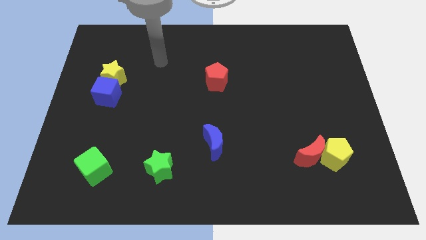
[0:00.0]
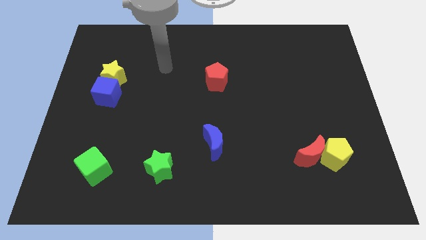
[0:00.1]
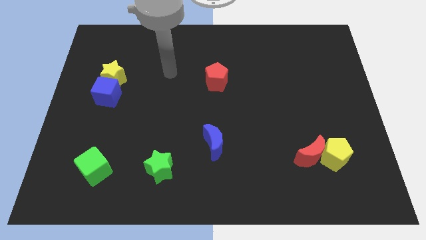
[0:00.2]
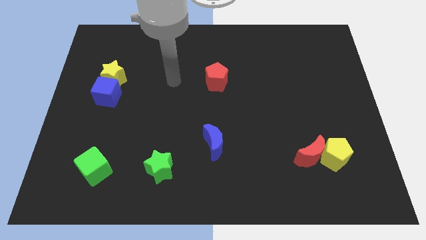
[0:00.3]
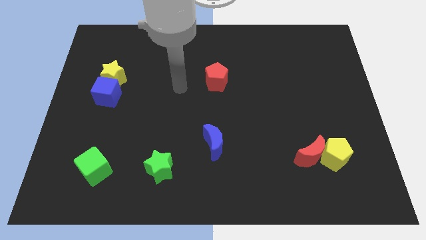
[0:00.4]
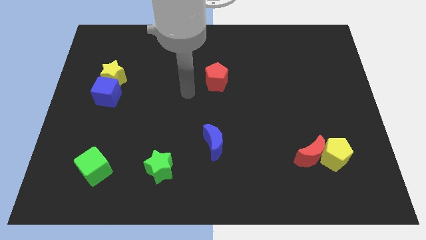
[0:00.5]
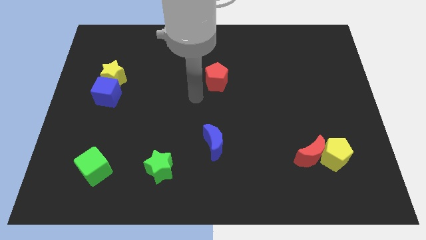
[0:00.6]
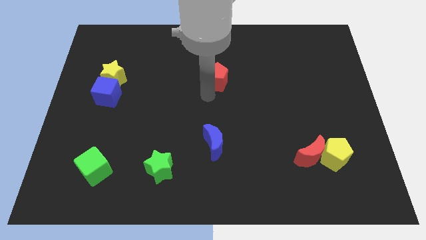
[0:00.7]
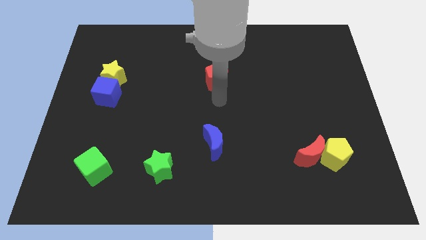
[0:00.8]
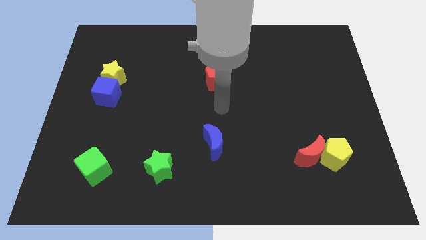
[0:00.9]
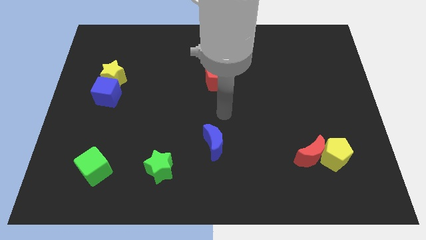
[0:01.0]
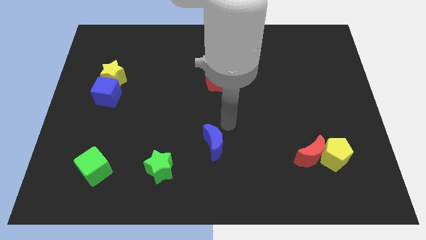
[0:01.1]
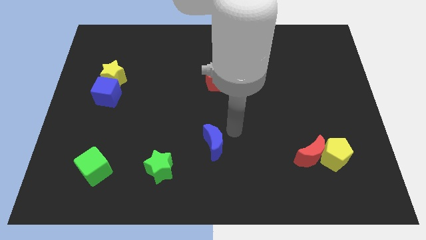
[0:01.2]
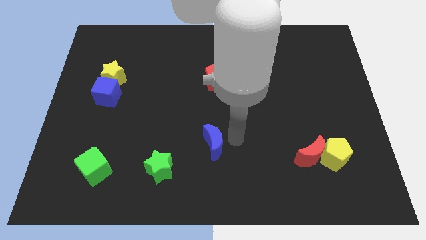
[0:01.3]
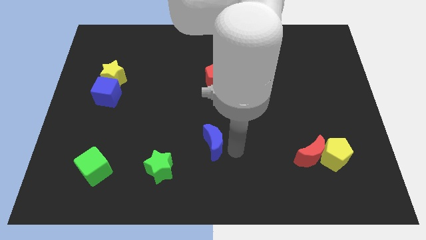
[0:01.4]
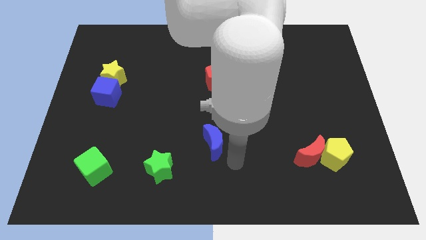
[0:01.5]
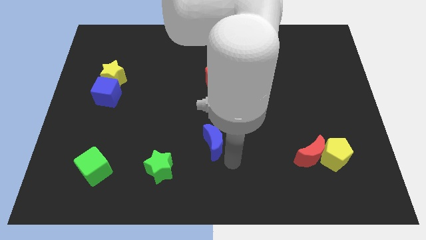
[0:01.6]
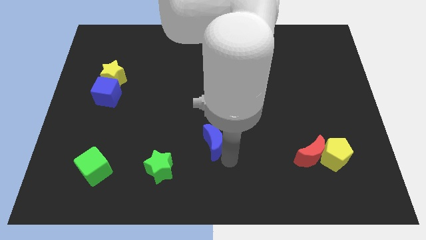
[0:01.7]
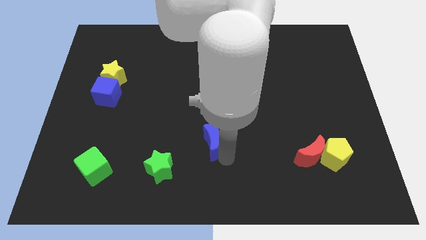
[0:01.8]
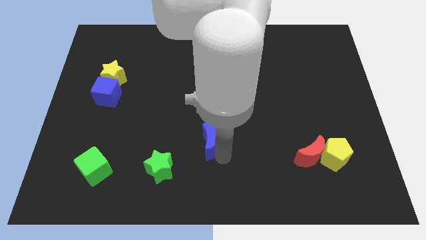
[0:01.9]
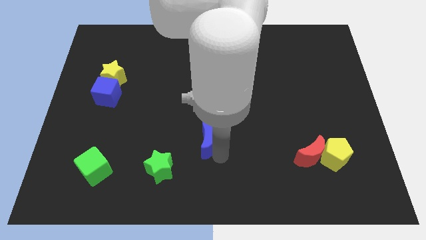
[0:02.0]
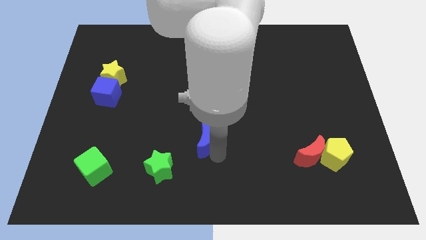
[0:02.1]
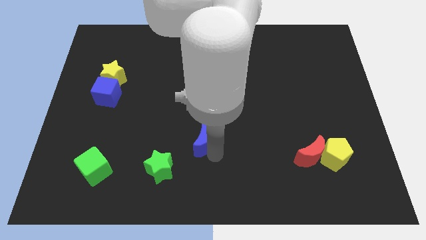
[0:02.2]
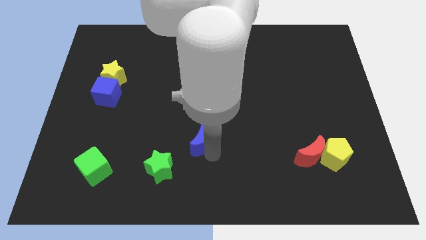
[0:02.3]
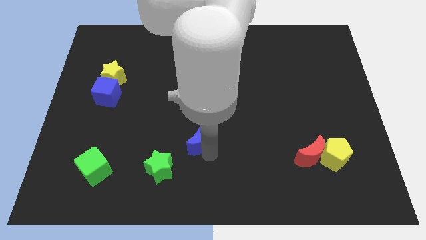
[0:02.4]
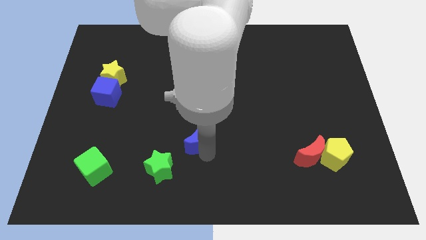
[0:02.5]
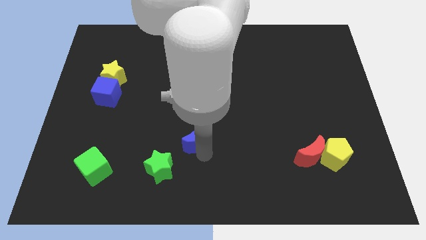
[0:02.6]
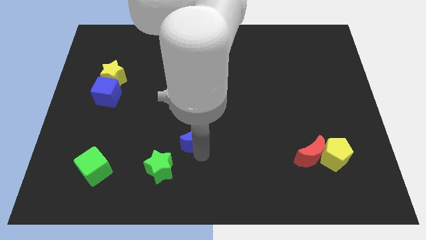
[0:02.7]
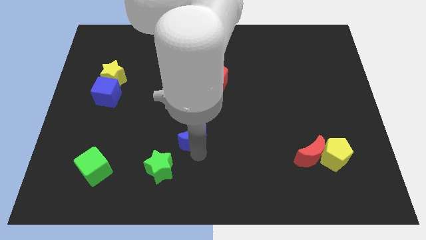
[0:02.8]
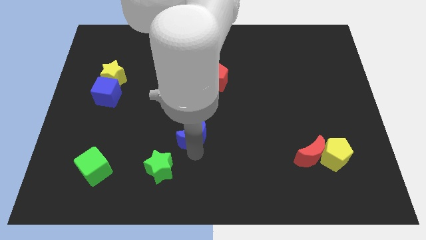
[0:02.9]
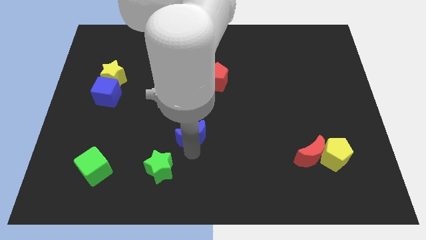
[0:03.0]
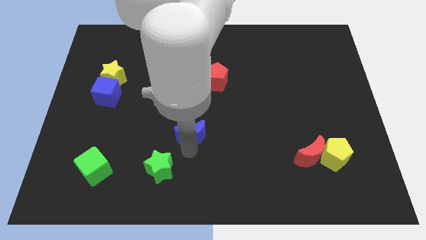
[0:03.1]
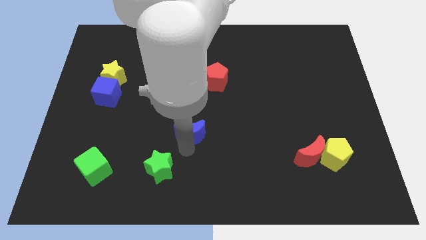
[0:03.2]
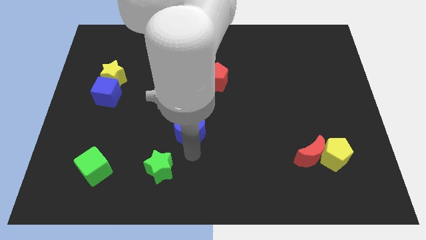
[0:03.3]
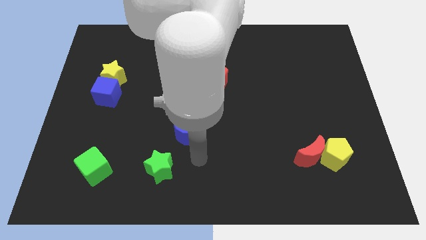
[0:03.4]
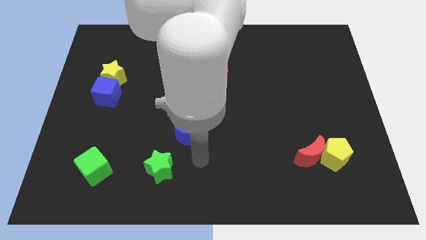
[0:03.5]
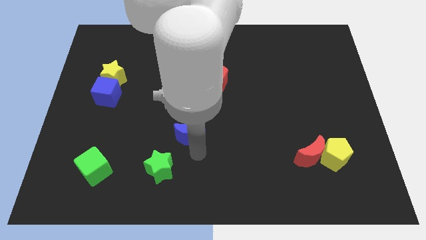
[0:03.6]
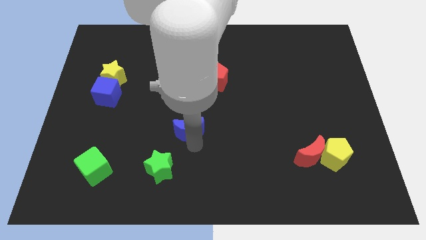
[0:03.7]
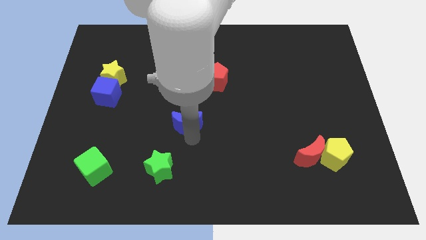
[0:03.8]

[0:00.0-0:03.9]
slightly move the blue moon upwards and then left

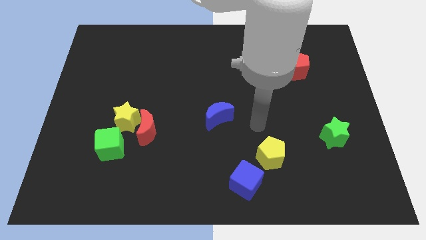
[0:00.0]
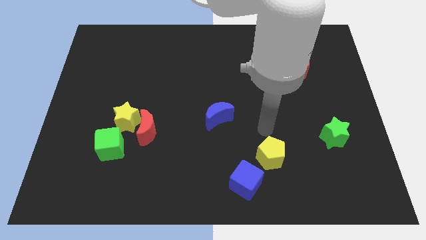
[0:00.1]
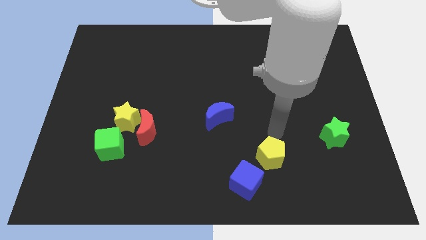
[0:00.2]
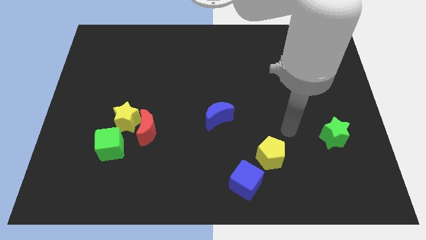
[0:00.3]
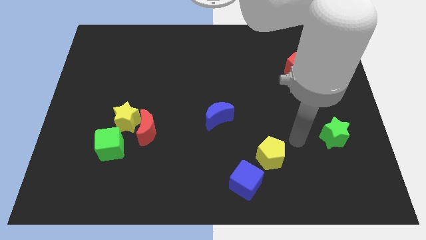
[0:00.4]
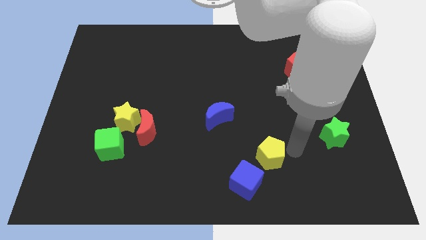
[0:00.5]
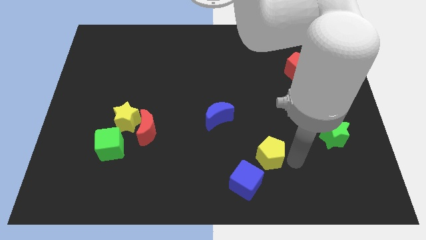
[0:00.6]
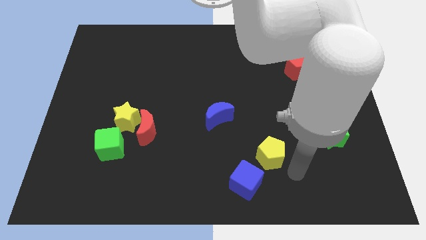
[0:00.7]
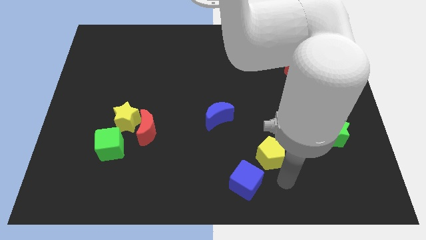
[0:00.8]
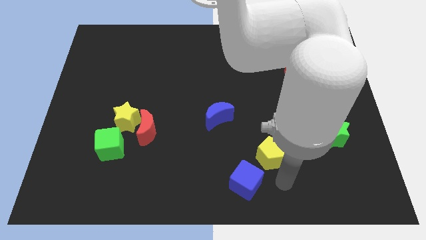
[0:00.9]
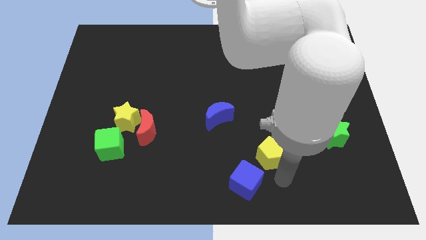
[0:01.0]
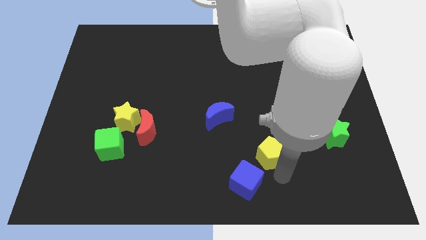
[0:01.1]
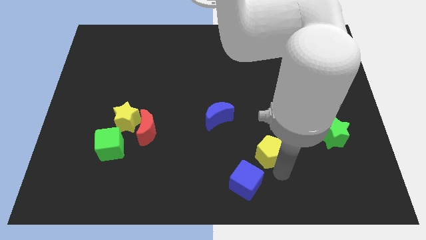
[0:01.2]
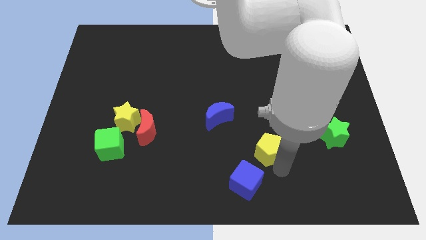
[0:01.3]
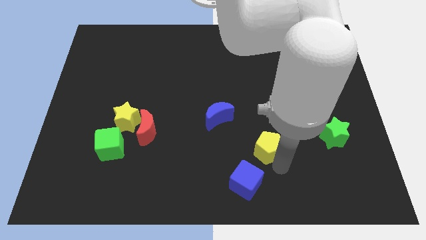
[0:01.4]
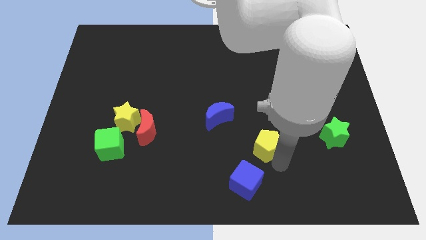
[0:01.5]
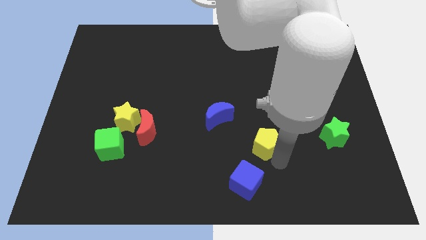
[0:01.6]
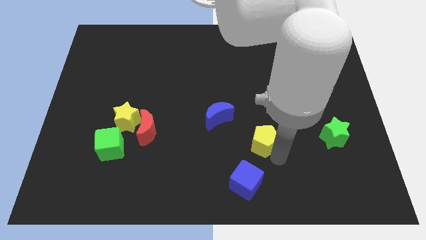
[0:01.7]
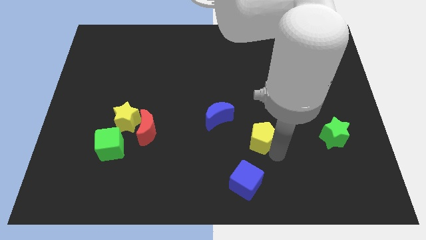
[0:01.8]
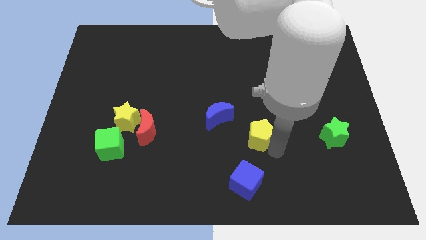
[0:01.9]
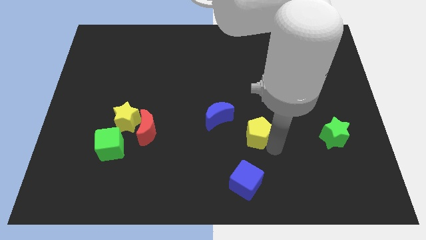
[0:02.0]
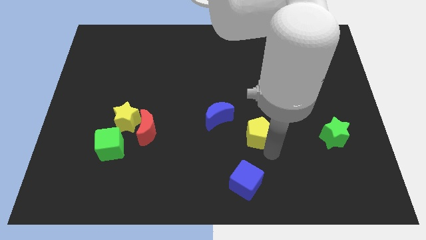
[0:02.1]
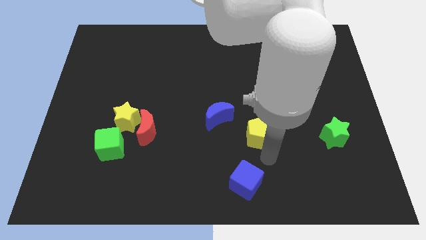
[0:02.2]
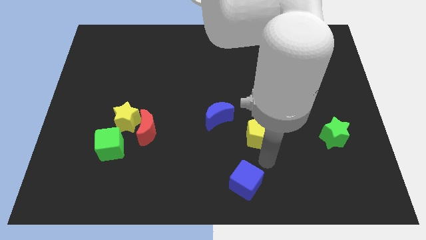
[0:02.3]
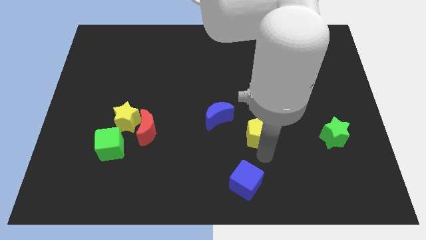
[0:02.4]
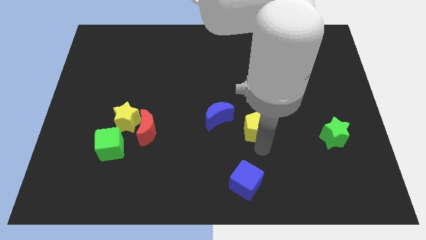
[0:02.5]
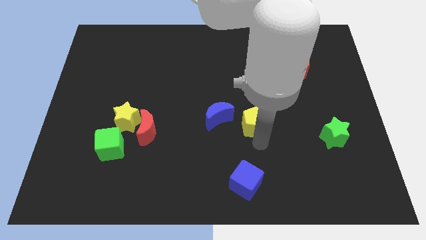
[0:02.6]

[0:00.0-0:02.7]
slightly slide the yellow pentagon upwards and then left

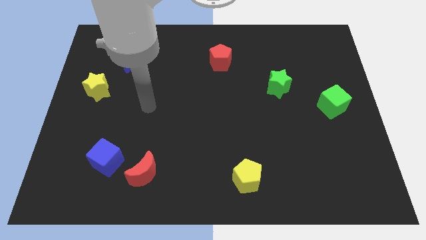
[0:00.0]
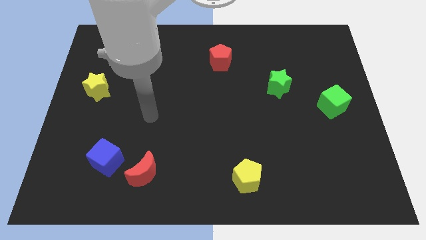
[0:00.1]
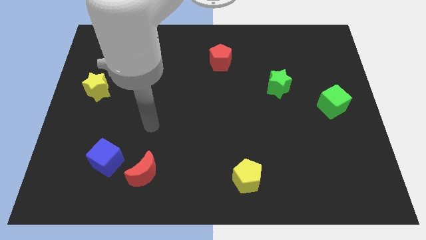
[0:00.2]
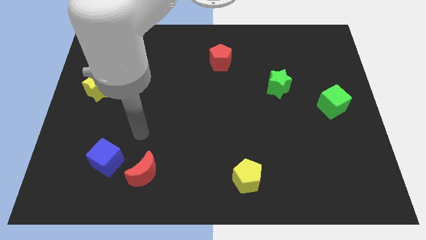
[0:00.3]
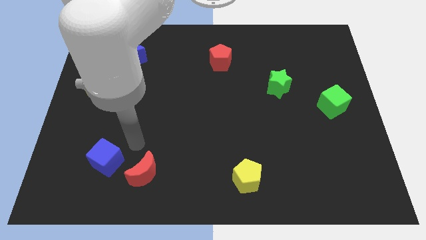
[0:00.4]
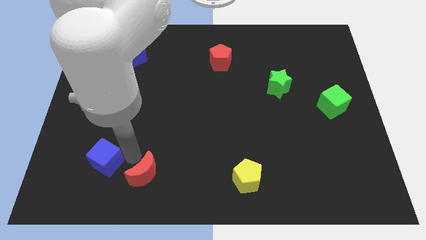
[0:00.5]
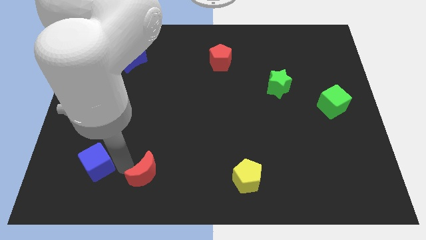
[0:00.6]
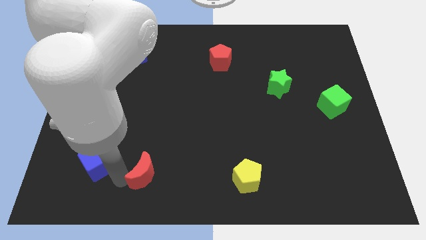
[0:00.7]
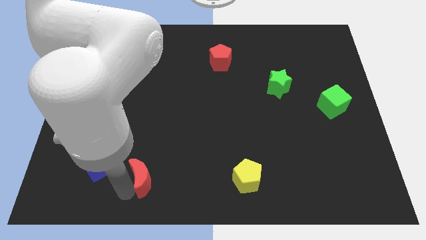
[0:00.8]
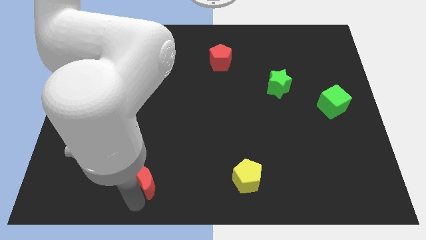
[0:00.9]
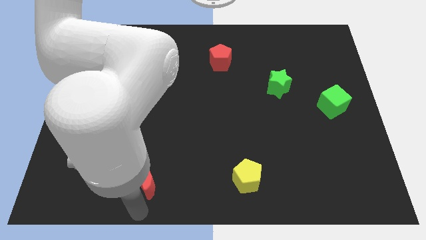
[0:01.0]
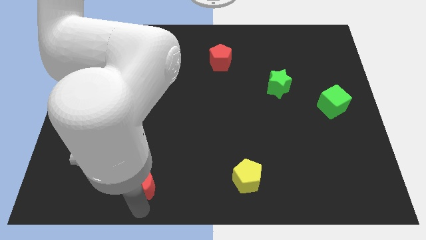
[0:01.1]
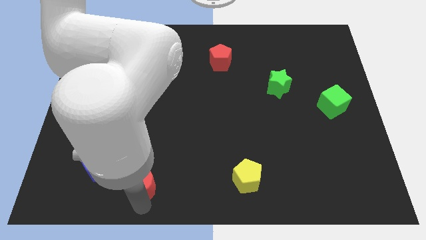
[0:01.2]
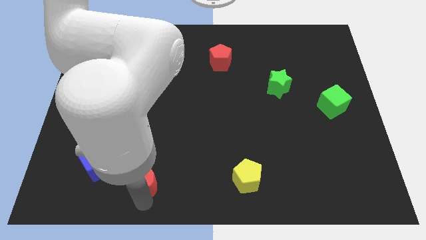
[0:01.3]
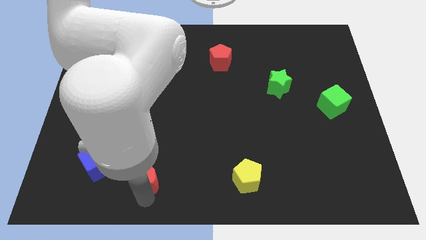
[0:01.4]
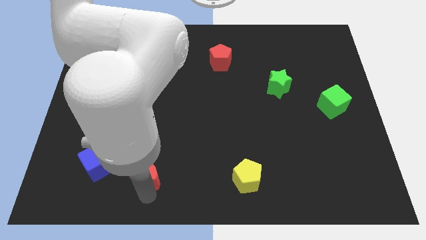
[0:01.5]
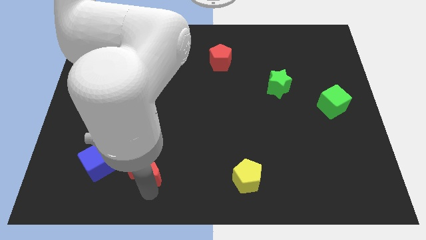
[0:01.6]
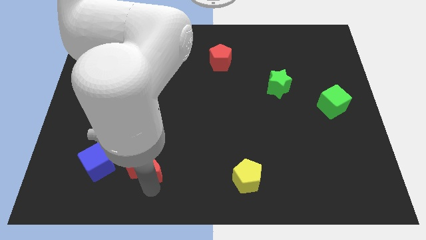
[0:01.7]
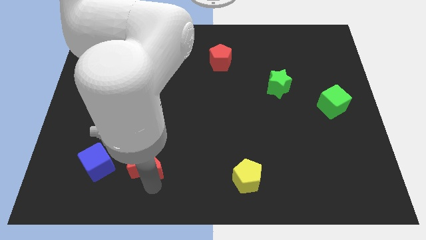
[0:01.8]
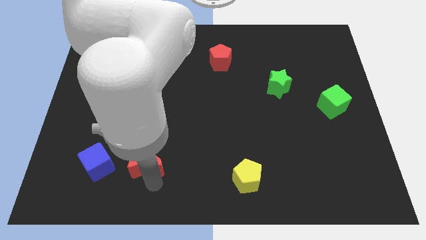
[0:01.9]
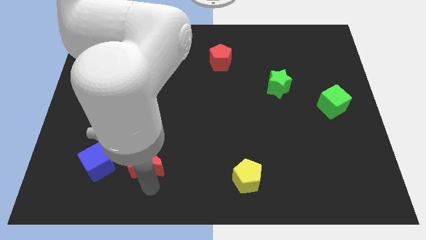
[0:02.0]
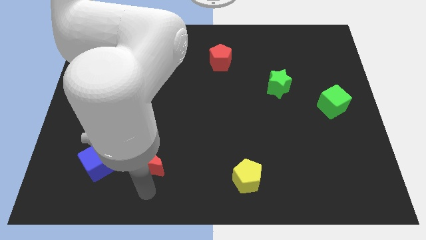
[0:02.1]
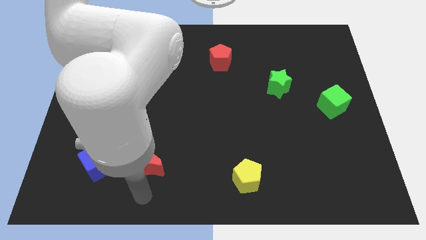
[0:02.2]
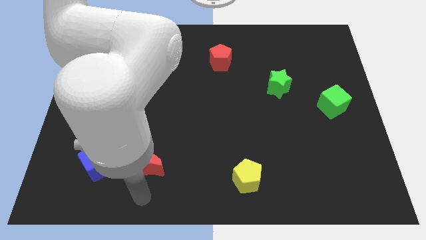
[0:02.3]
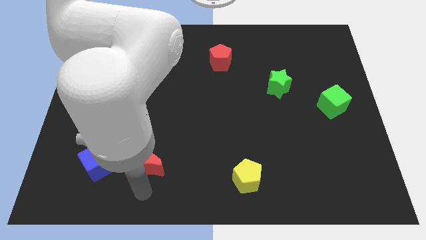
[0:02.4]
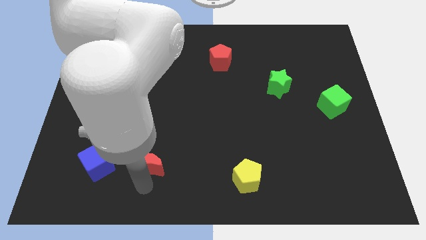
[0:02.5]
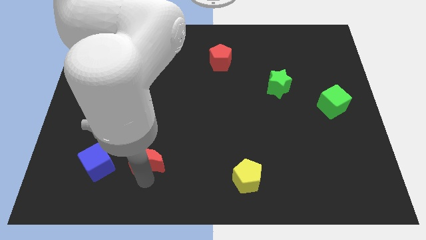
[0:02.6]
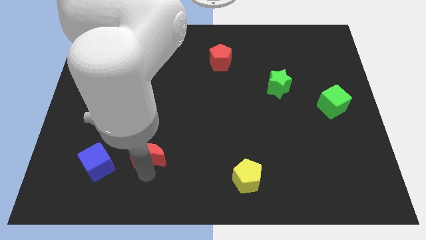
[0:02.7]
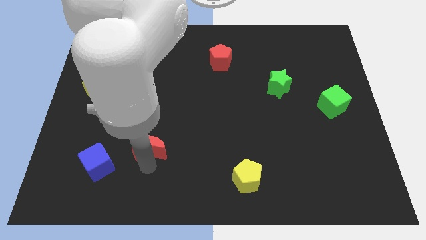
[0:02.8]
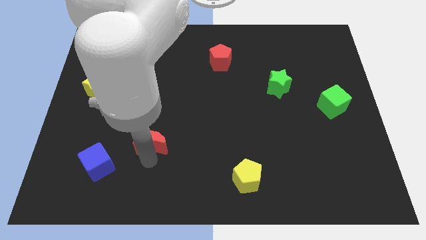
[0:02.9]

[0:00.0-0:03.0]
slightly slide the red moon upwards
